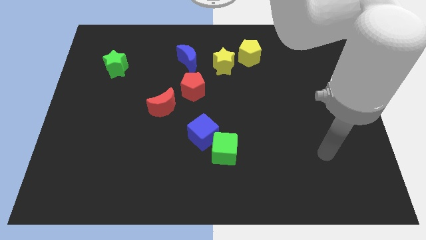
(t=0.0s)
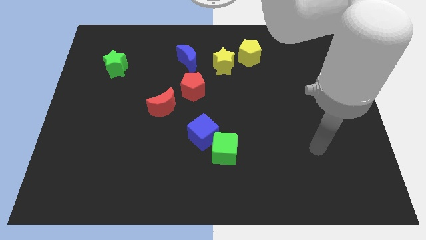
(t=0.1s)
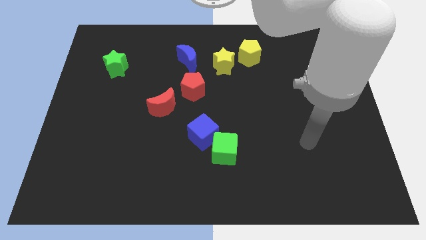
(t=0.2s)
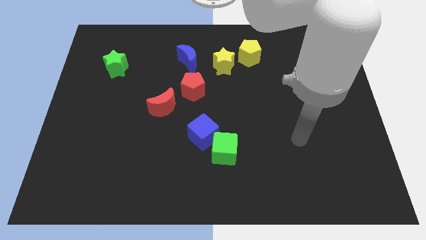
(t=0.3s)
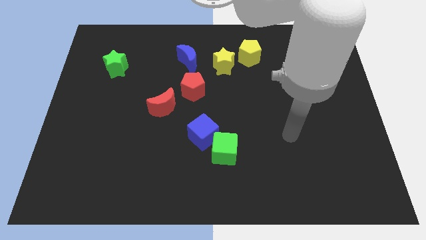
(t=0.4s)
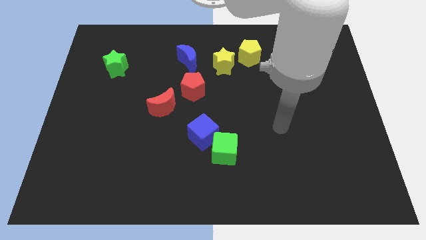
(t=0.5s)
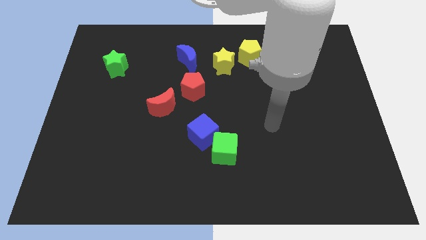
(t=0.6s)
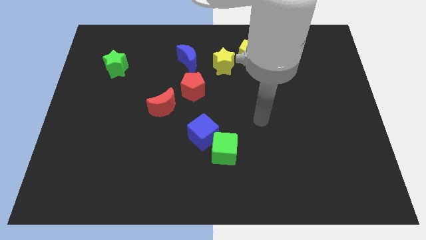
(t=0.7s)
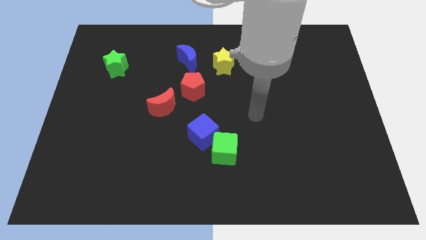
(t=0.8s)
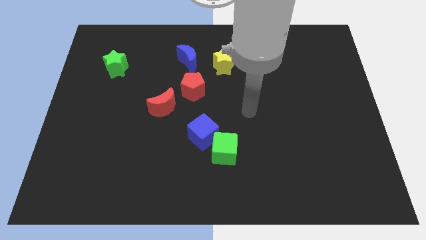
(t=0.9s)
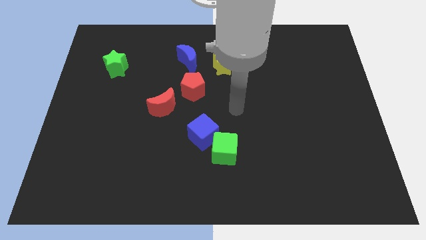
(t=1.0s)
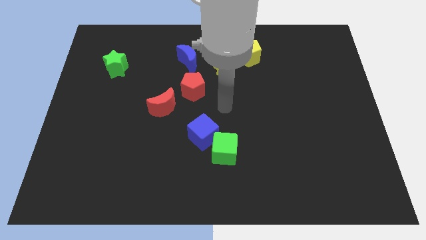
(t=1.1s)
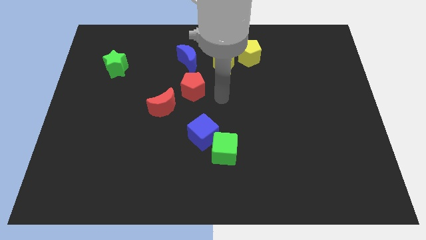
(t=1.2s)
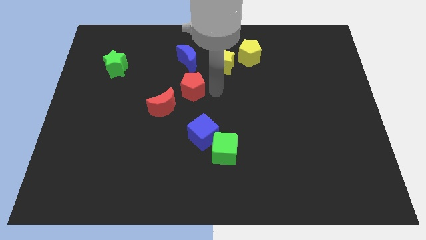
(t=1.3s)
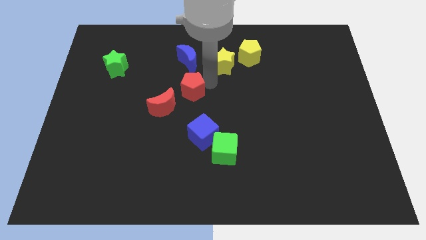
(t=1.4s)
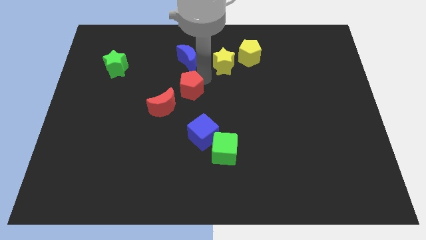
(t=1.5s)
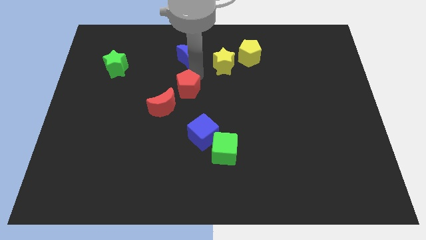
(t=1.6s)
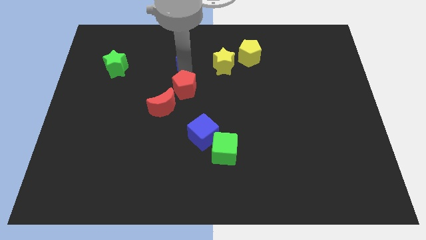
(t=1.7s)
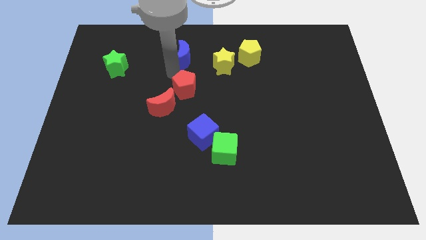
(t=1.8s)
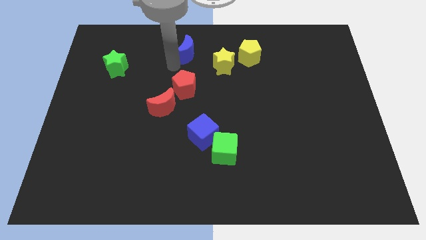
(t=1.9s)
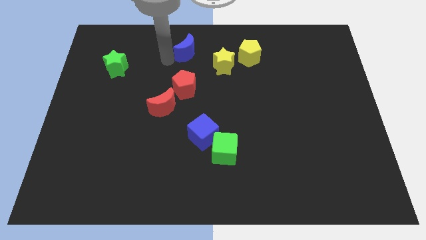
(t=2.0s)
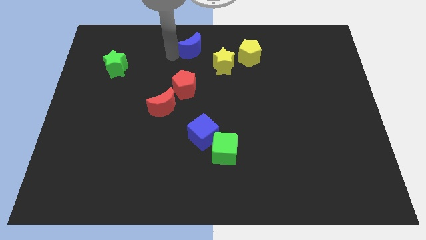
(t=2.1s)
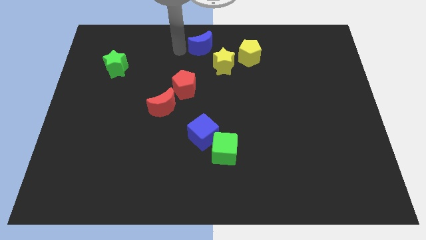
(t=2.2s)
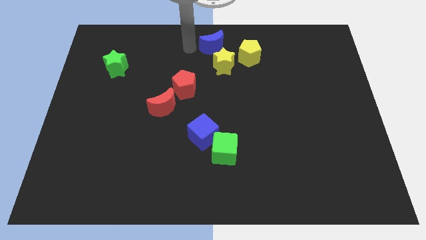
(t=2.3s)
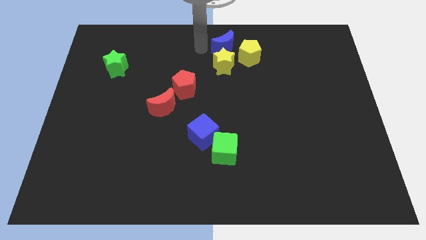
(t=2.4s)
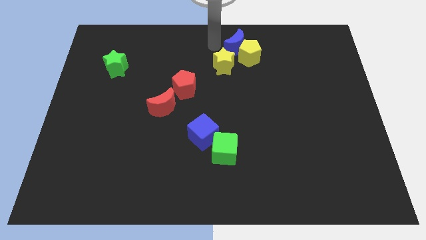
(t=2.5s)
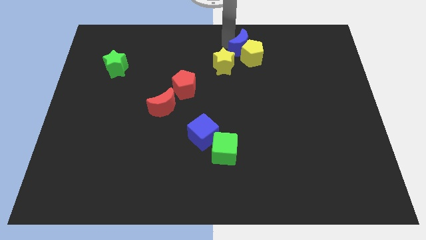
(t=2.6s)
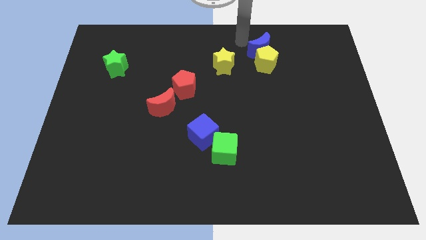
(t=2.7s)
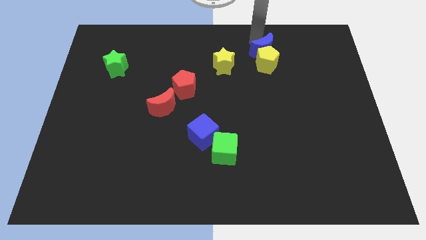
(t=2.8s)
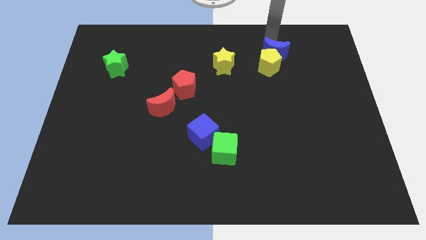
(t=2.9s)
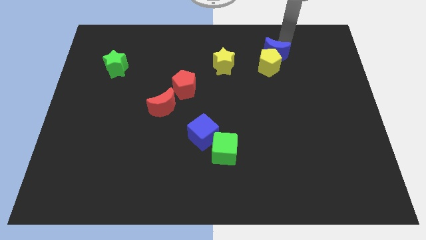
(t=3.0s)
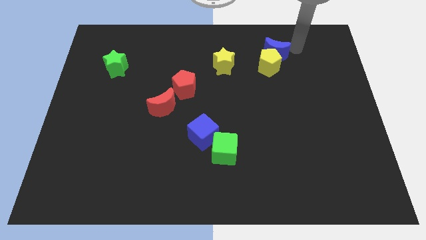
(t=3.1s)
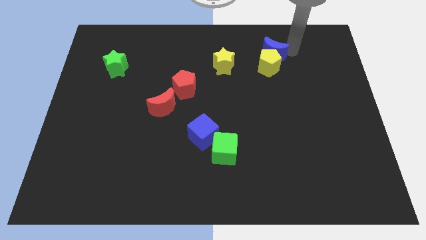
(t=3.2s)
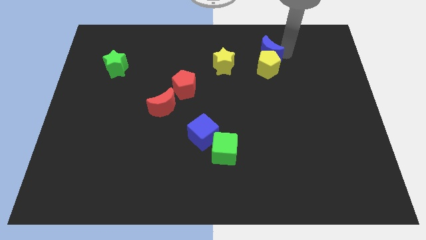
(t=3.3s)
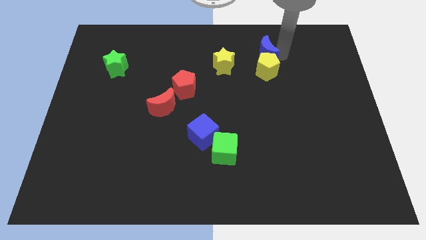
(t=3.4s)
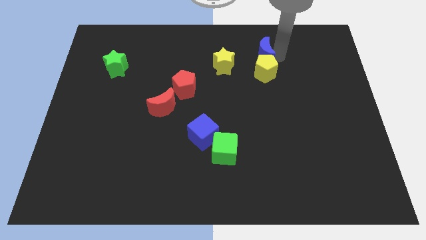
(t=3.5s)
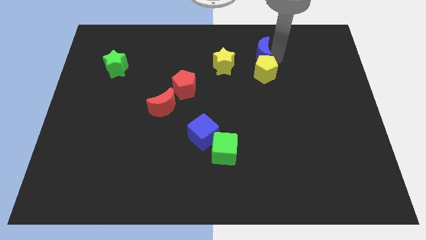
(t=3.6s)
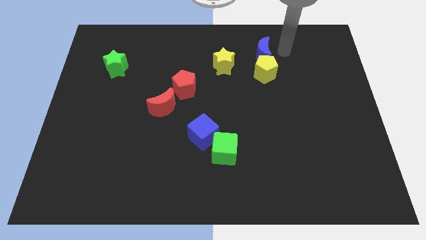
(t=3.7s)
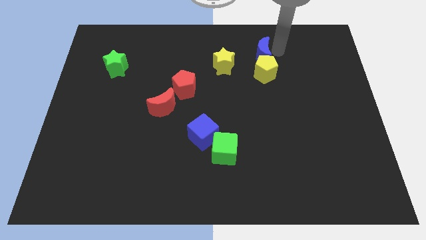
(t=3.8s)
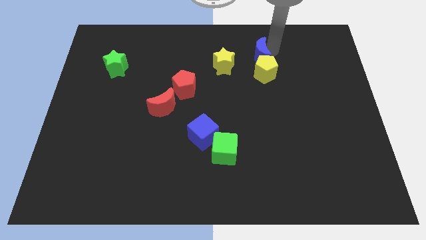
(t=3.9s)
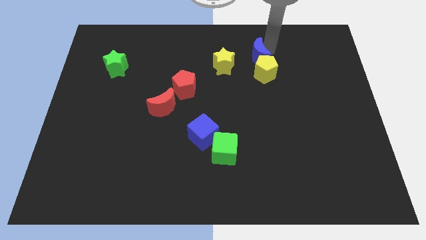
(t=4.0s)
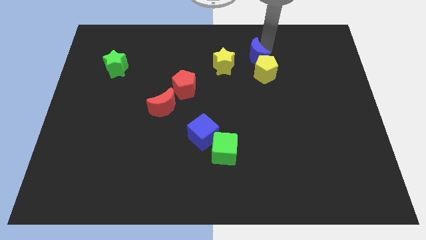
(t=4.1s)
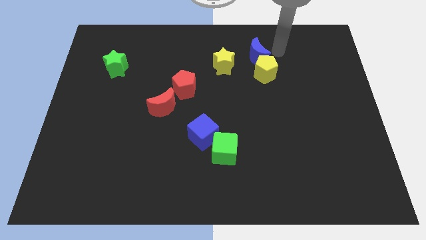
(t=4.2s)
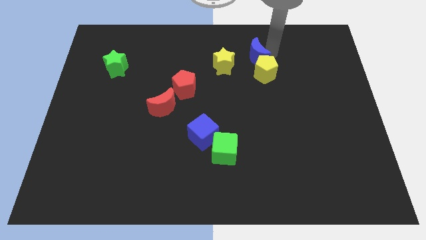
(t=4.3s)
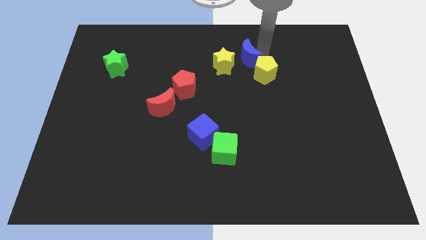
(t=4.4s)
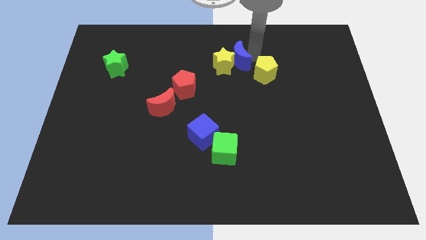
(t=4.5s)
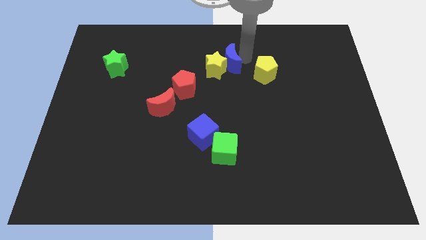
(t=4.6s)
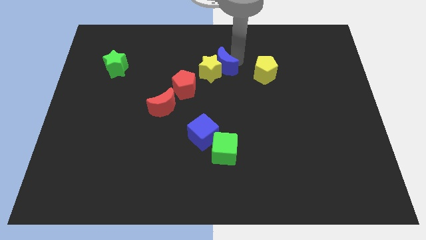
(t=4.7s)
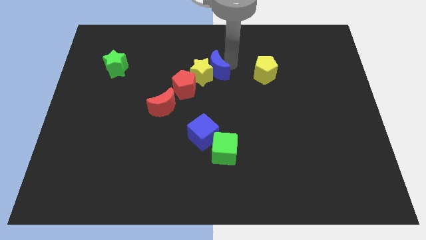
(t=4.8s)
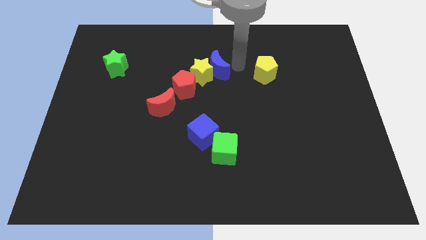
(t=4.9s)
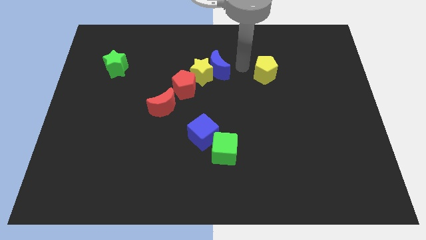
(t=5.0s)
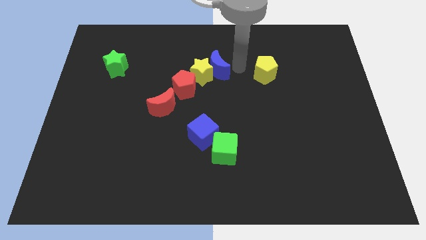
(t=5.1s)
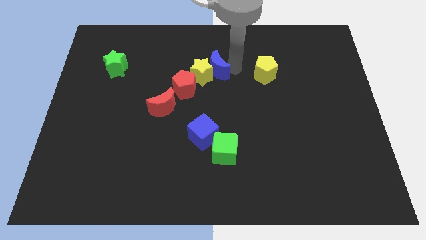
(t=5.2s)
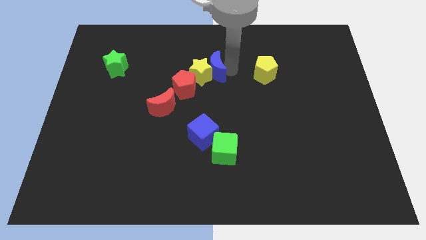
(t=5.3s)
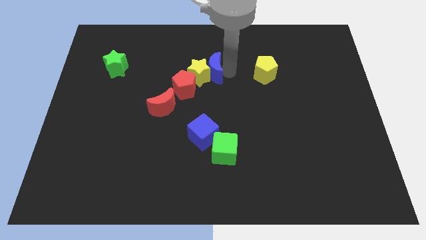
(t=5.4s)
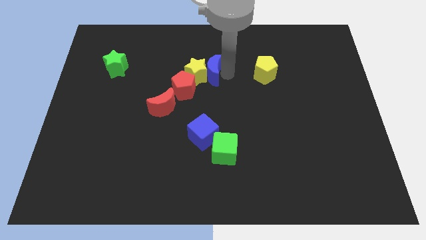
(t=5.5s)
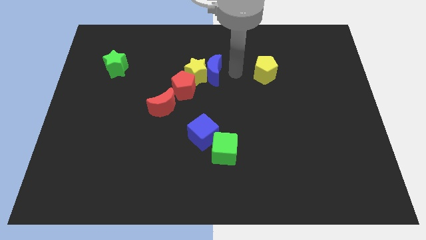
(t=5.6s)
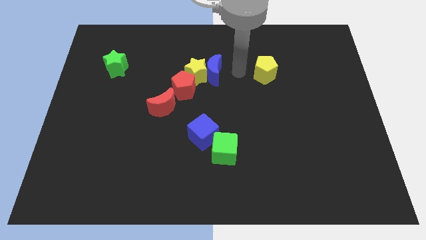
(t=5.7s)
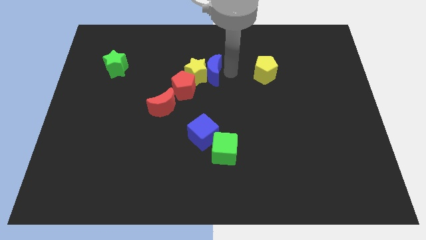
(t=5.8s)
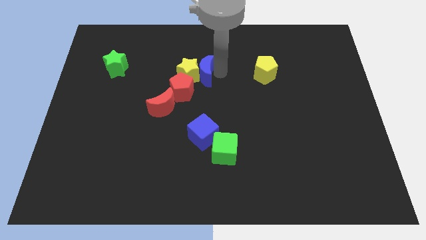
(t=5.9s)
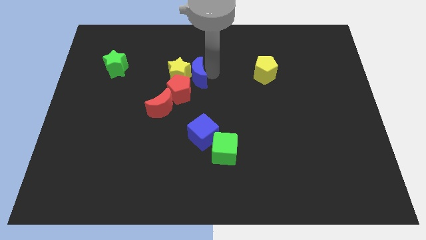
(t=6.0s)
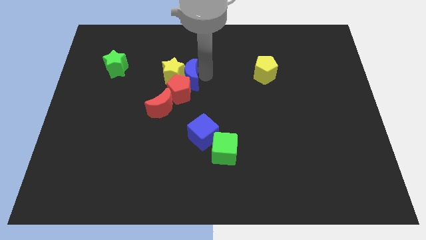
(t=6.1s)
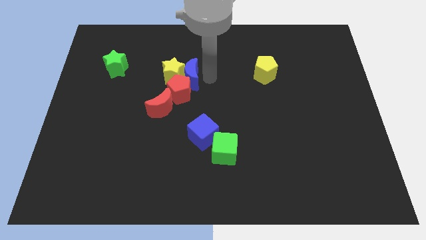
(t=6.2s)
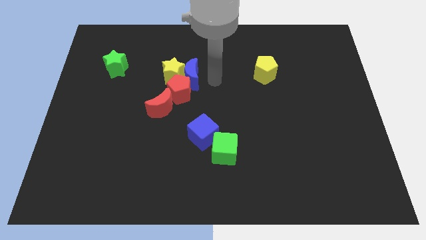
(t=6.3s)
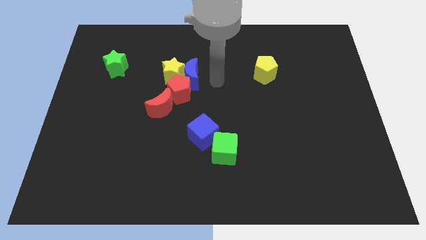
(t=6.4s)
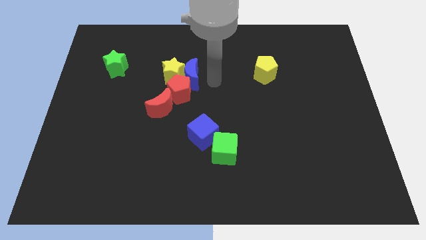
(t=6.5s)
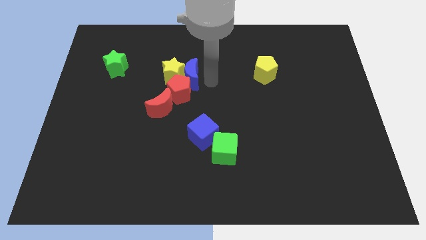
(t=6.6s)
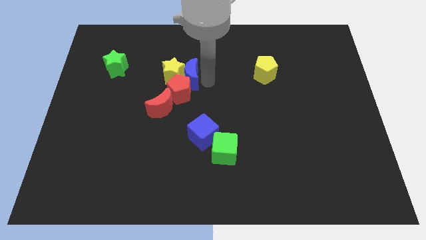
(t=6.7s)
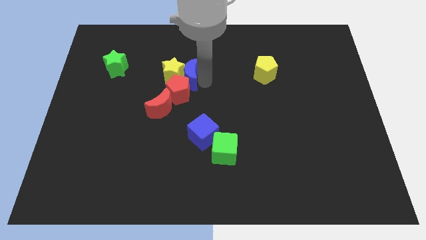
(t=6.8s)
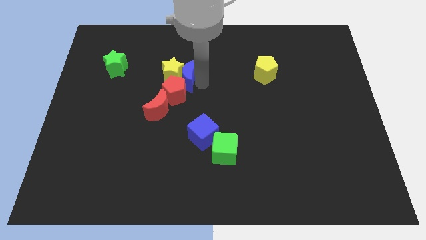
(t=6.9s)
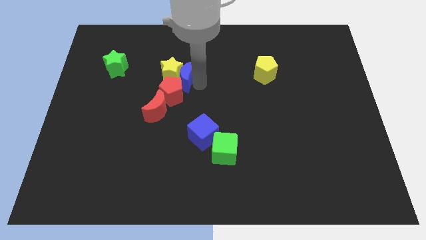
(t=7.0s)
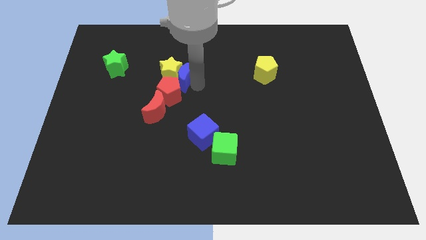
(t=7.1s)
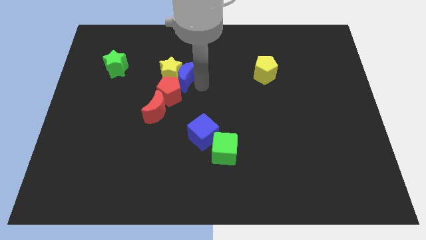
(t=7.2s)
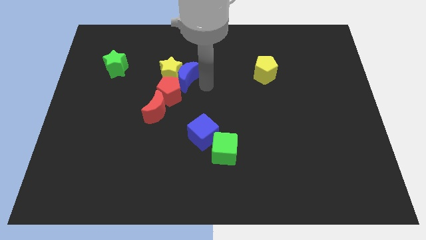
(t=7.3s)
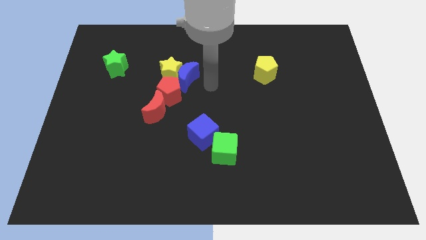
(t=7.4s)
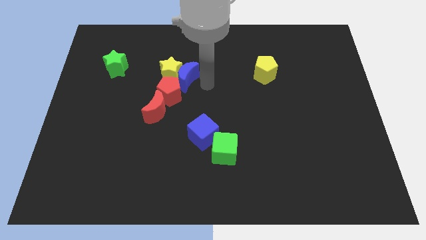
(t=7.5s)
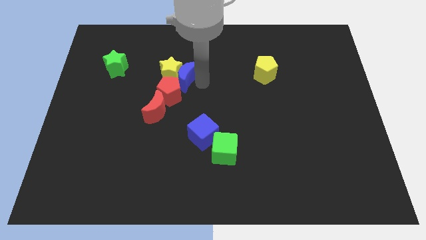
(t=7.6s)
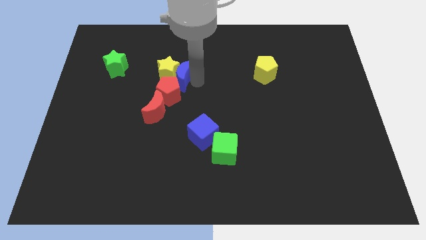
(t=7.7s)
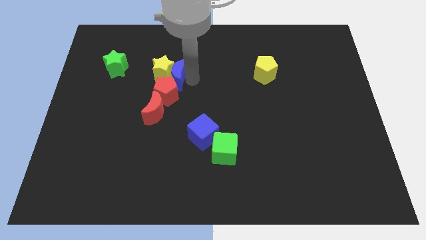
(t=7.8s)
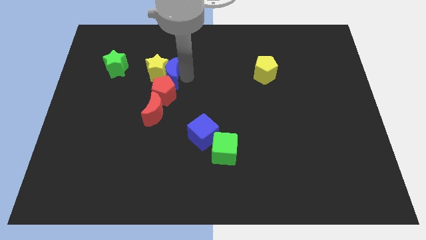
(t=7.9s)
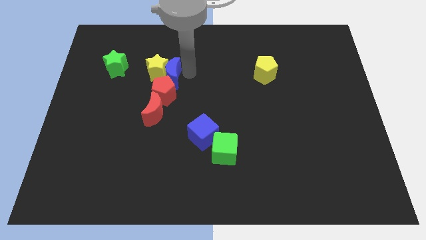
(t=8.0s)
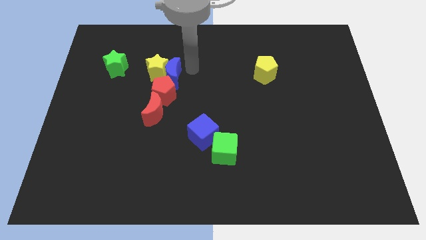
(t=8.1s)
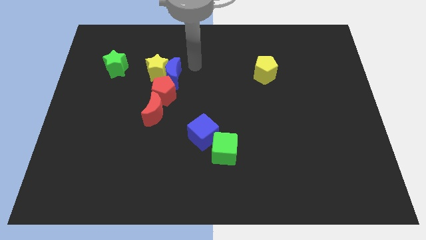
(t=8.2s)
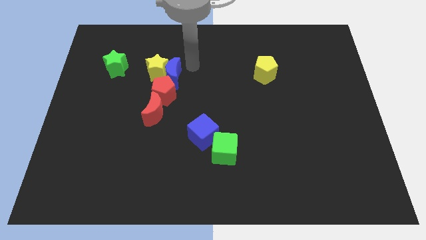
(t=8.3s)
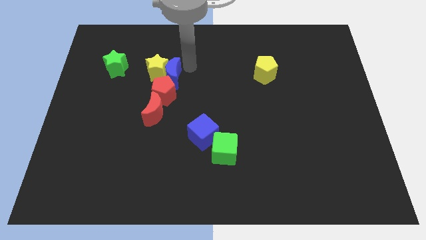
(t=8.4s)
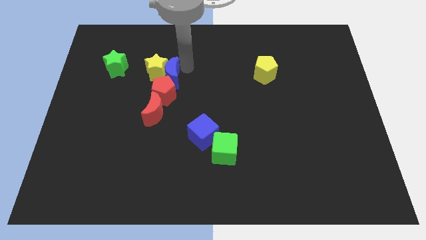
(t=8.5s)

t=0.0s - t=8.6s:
push the blue moon a bit down and left diagonally

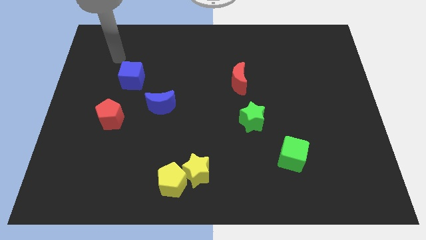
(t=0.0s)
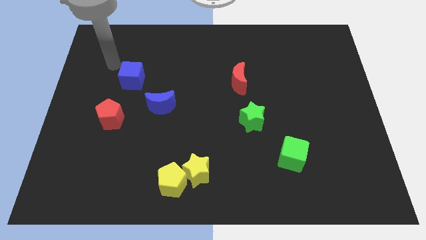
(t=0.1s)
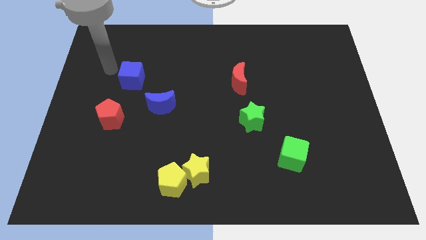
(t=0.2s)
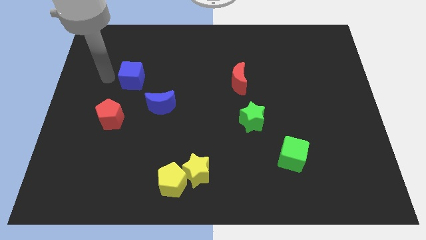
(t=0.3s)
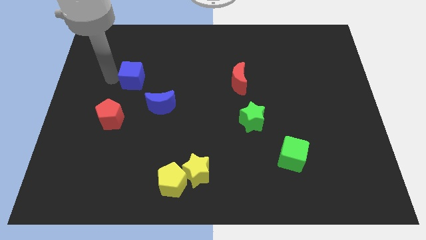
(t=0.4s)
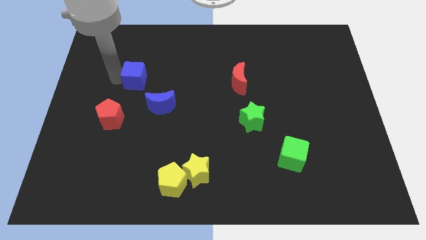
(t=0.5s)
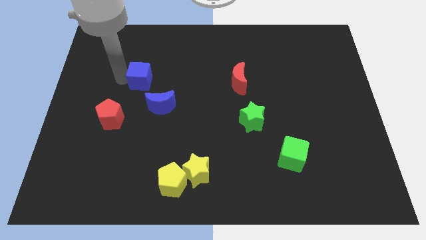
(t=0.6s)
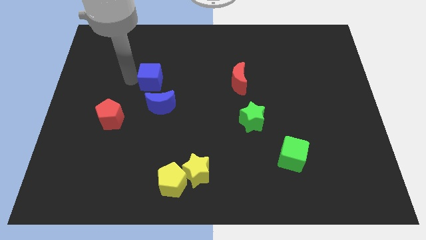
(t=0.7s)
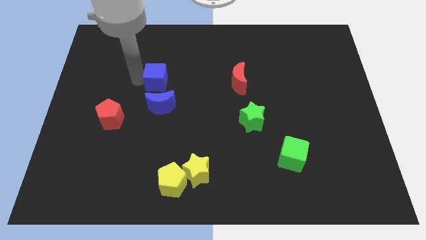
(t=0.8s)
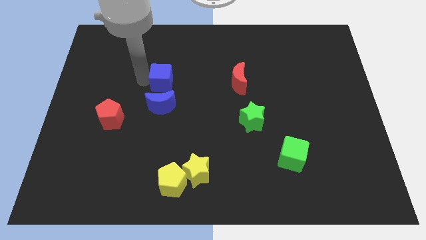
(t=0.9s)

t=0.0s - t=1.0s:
push the blue cube right a little
